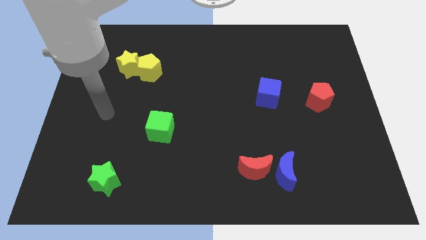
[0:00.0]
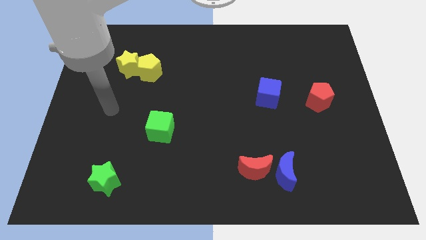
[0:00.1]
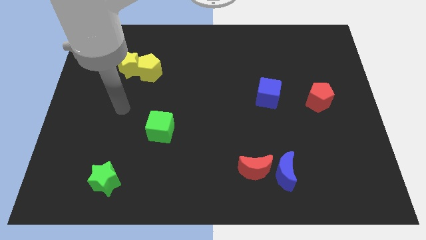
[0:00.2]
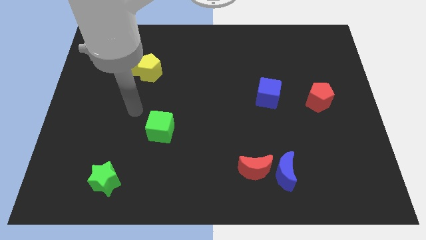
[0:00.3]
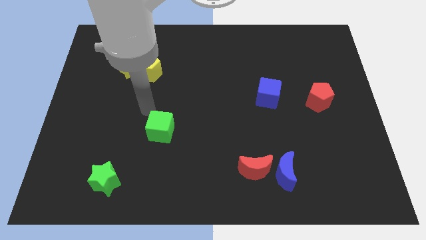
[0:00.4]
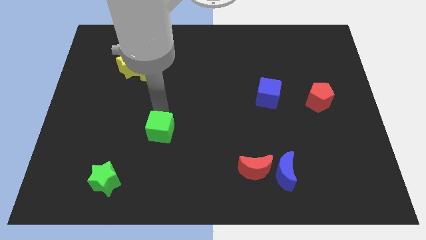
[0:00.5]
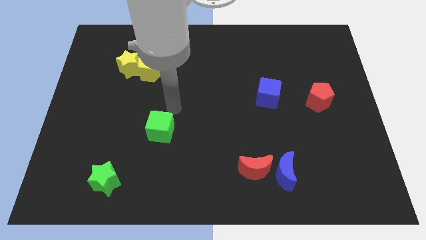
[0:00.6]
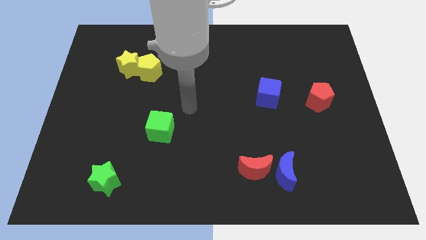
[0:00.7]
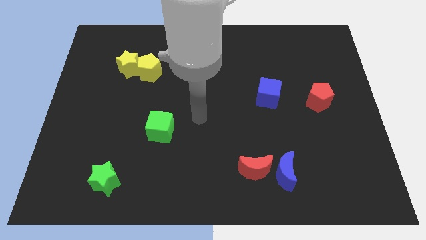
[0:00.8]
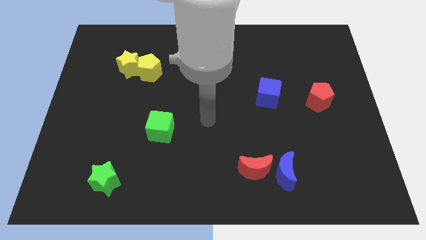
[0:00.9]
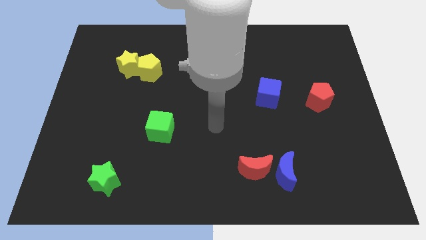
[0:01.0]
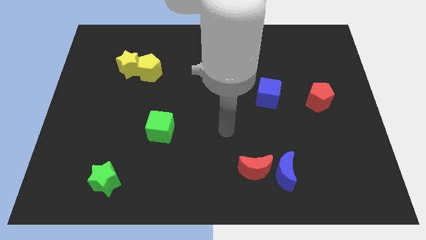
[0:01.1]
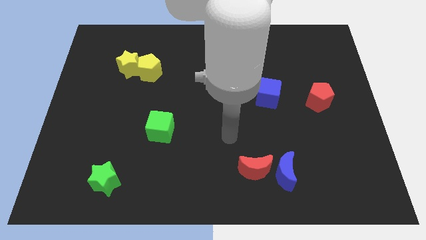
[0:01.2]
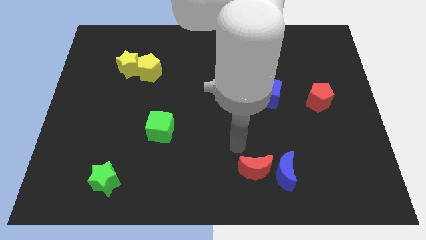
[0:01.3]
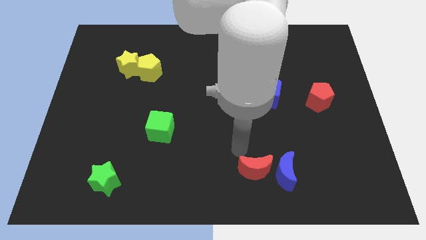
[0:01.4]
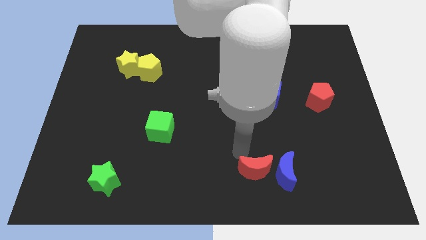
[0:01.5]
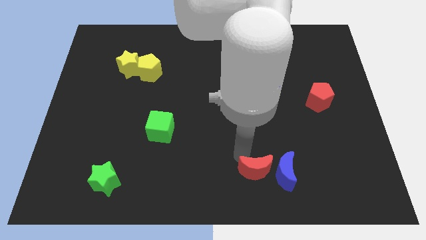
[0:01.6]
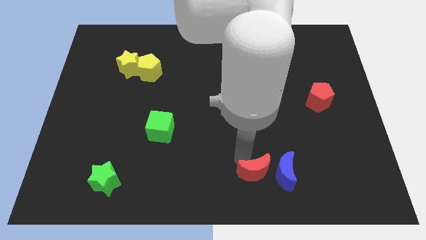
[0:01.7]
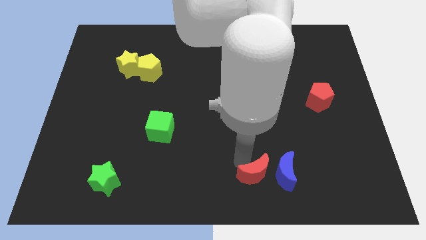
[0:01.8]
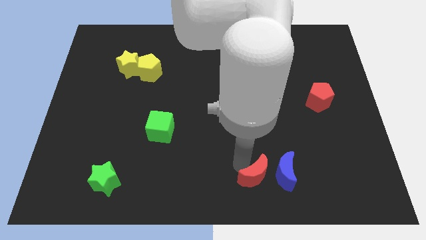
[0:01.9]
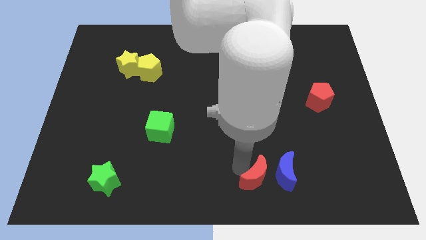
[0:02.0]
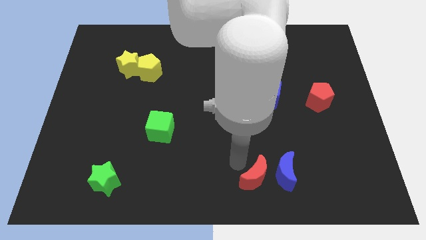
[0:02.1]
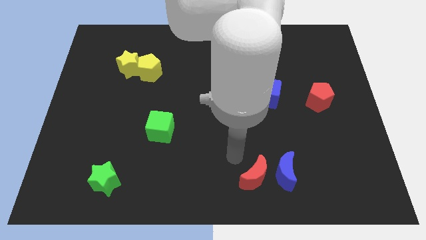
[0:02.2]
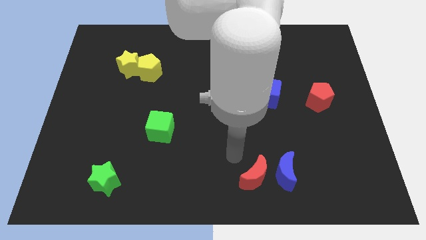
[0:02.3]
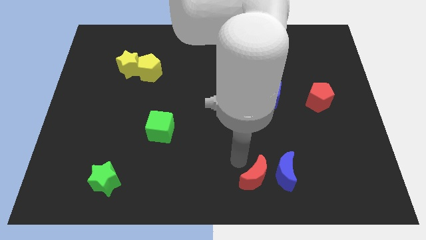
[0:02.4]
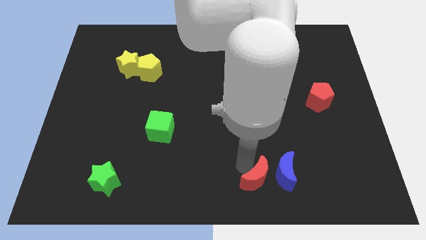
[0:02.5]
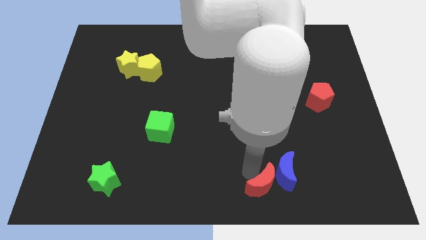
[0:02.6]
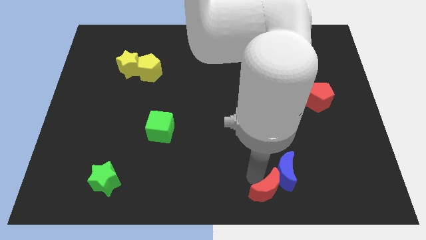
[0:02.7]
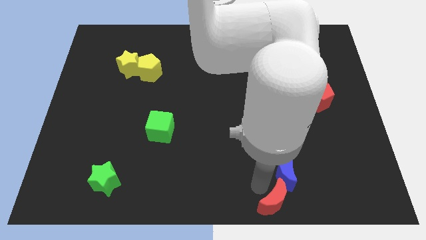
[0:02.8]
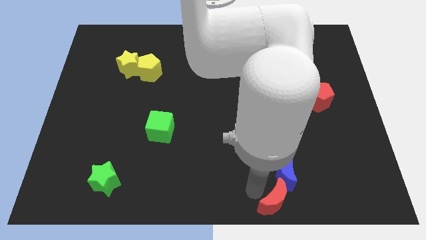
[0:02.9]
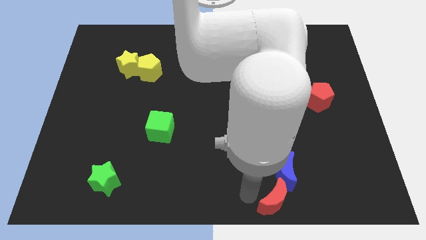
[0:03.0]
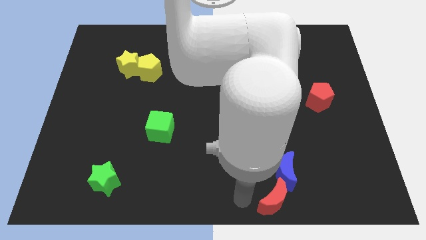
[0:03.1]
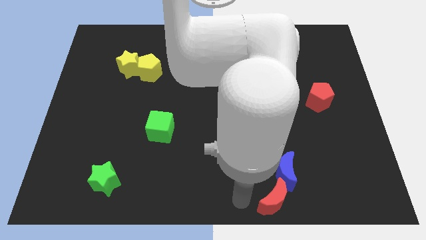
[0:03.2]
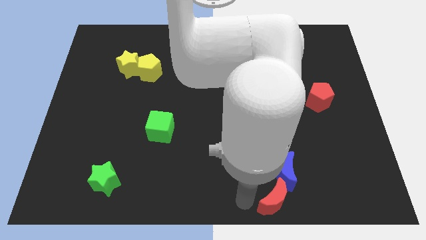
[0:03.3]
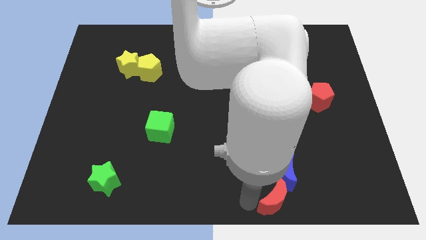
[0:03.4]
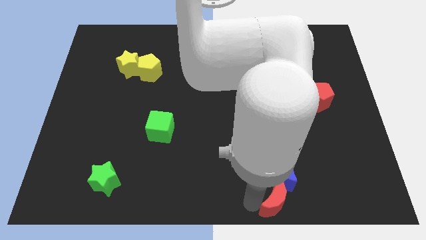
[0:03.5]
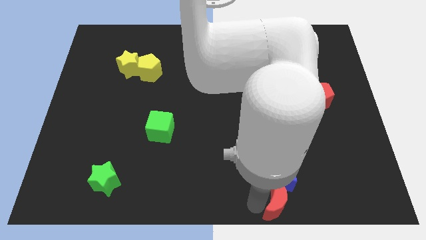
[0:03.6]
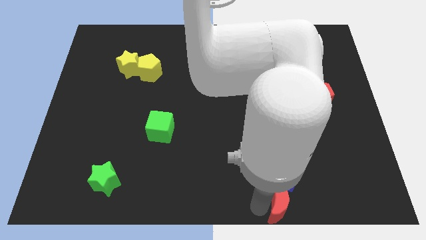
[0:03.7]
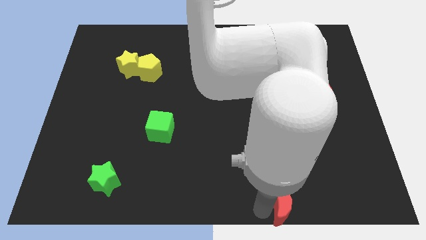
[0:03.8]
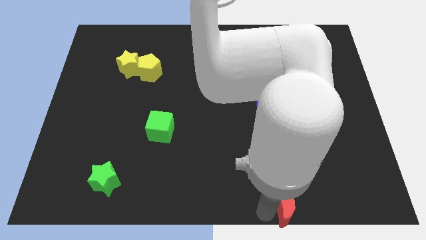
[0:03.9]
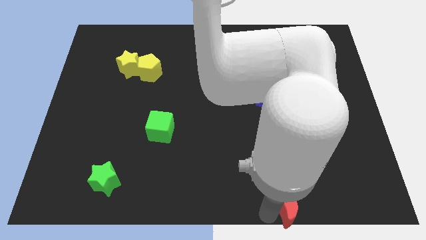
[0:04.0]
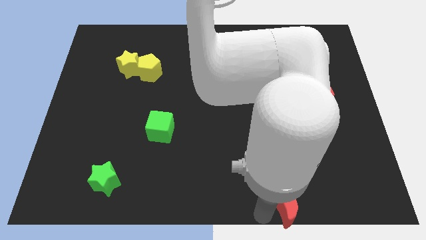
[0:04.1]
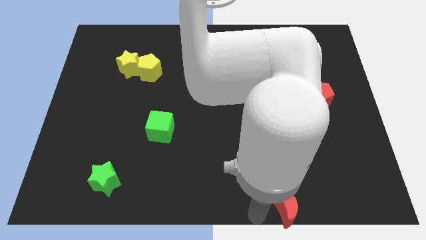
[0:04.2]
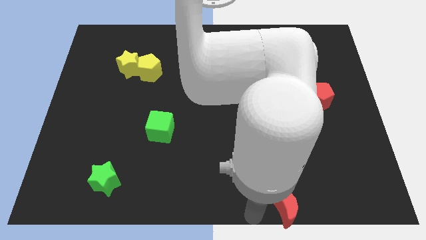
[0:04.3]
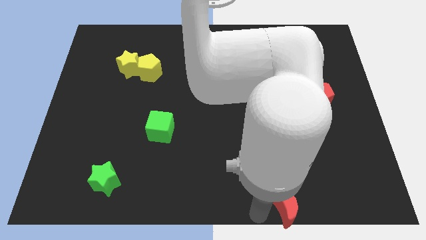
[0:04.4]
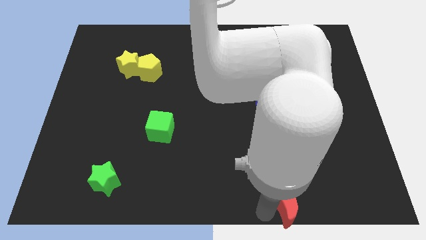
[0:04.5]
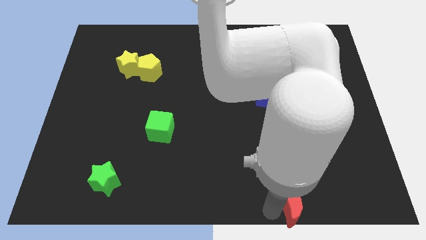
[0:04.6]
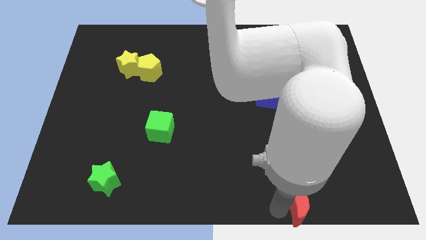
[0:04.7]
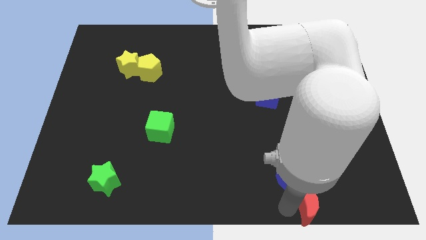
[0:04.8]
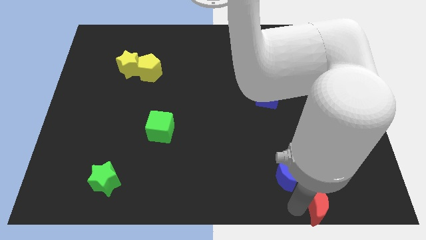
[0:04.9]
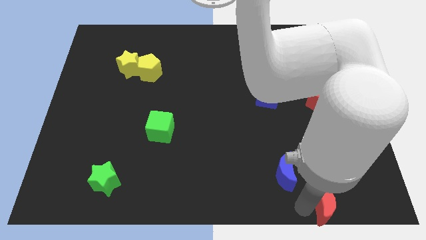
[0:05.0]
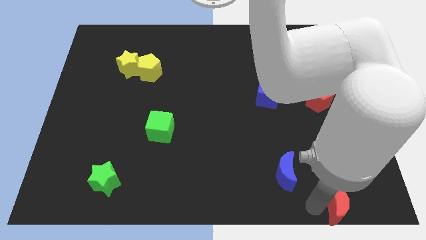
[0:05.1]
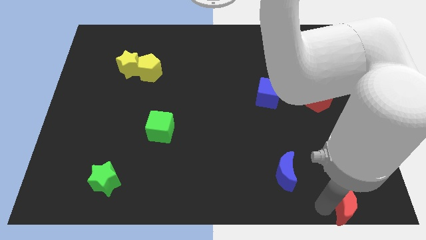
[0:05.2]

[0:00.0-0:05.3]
move the red moon to the bottom right corner

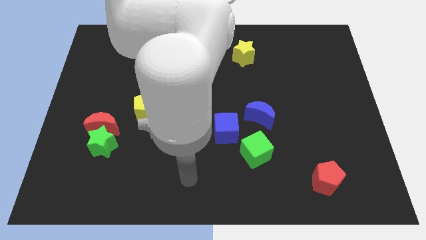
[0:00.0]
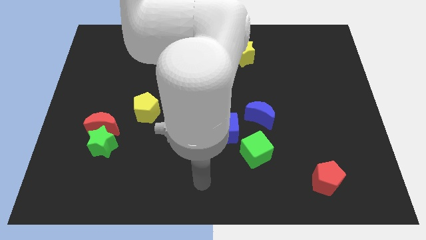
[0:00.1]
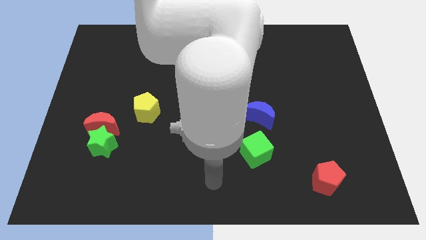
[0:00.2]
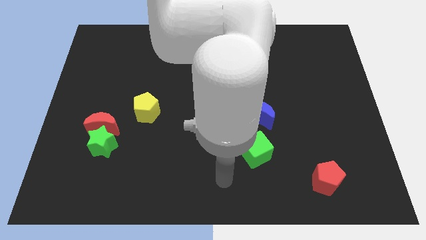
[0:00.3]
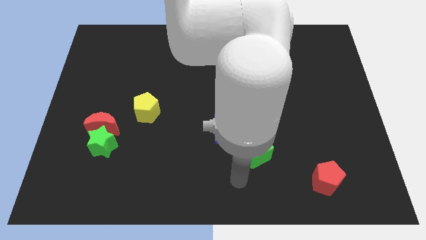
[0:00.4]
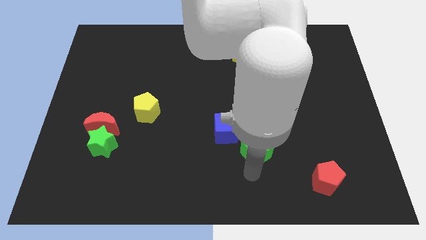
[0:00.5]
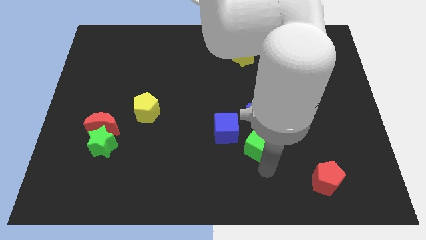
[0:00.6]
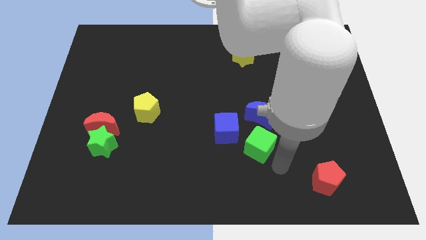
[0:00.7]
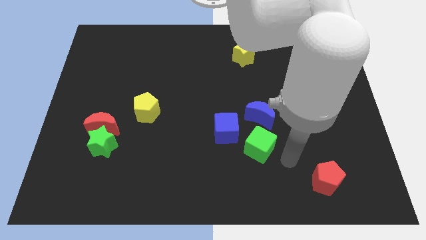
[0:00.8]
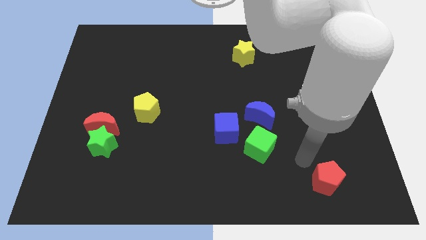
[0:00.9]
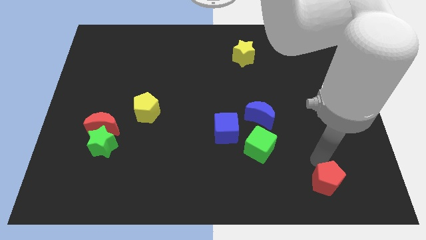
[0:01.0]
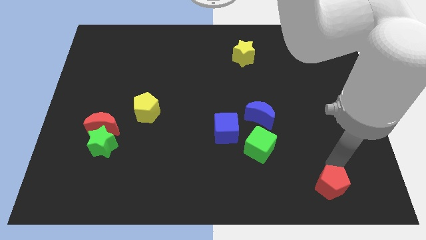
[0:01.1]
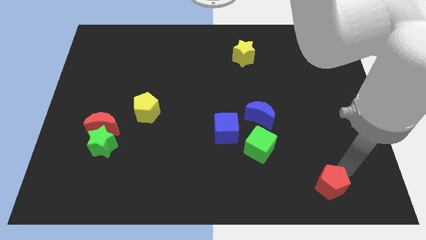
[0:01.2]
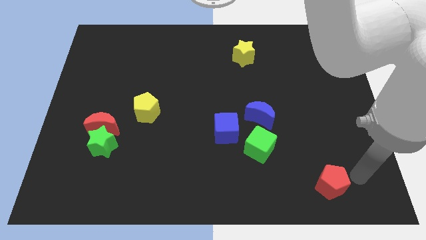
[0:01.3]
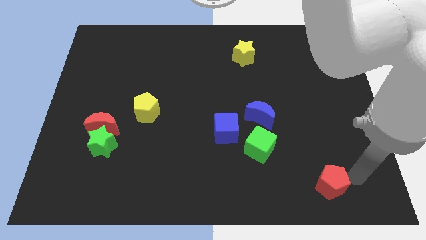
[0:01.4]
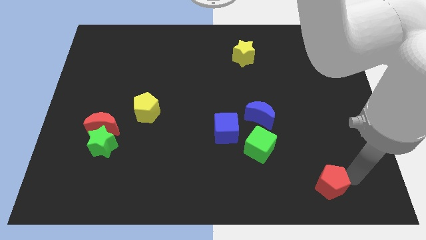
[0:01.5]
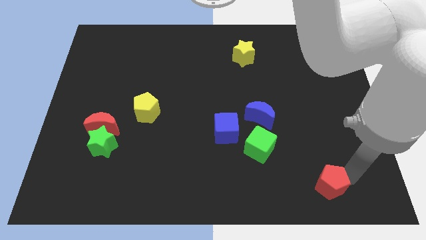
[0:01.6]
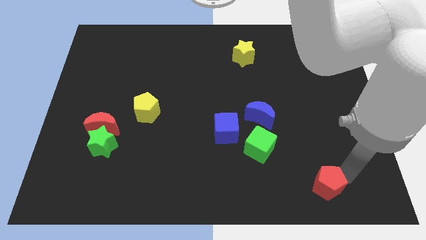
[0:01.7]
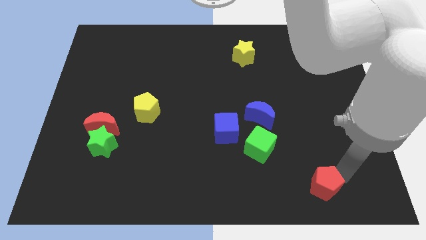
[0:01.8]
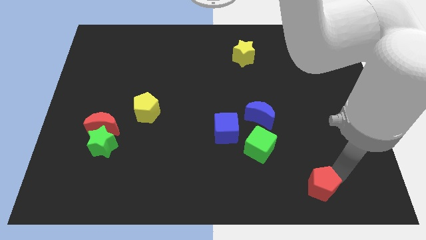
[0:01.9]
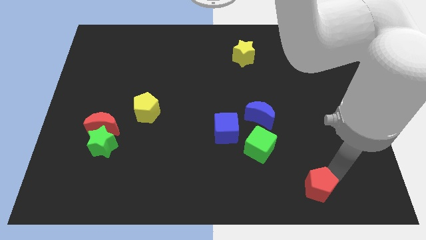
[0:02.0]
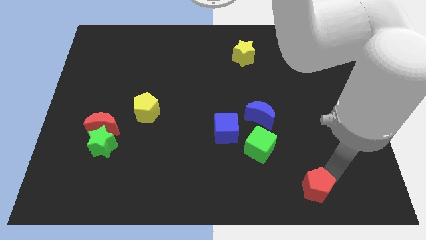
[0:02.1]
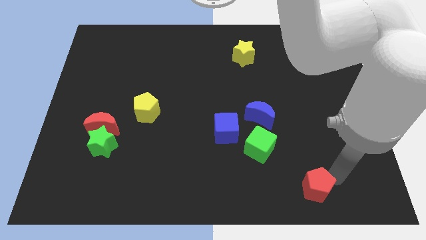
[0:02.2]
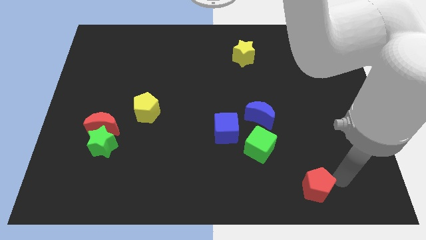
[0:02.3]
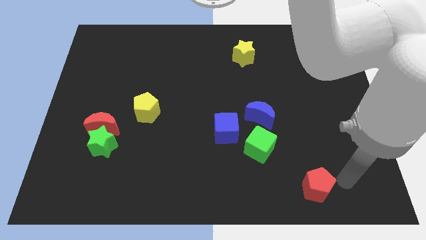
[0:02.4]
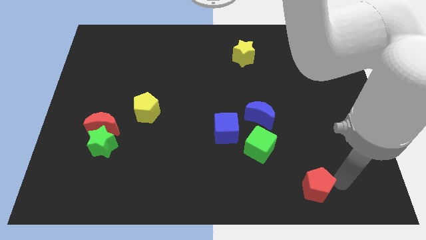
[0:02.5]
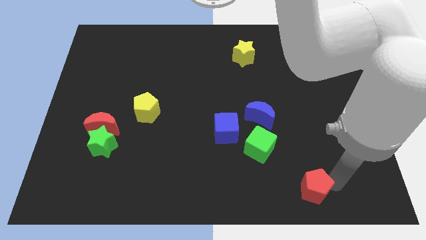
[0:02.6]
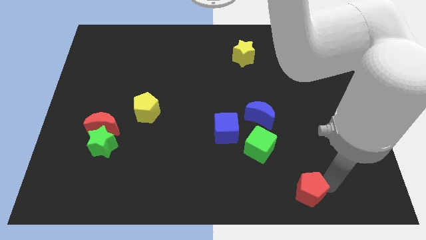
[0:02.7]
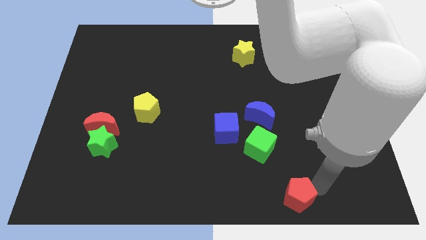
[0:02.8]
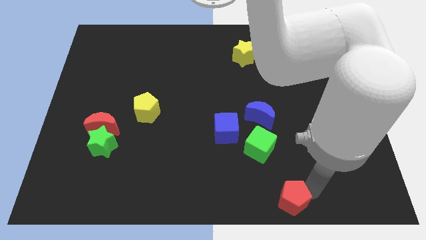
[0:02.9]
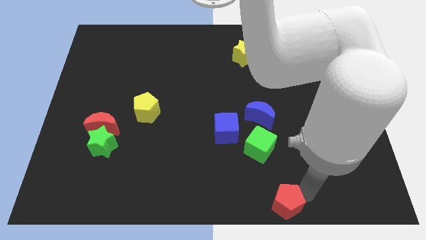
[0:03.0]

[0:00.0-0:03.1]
put the red pentagon to the bottom
